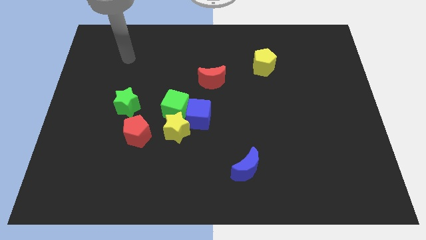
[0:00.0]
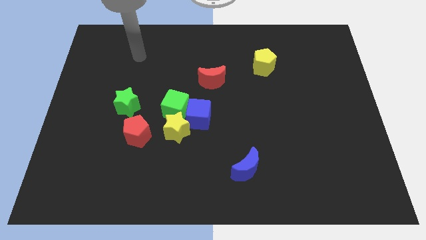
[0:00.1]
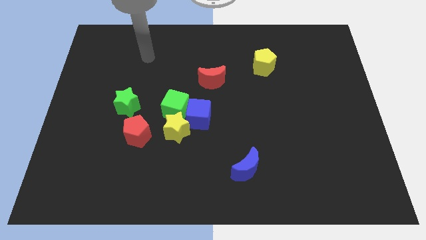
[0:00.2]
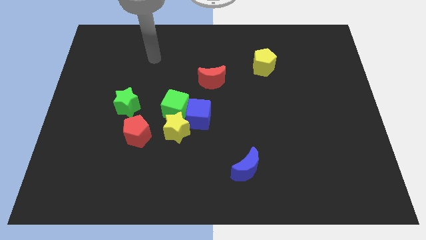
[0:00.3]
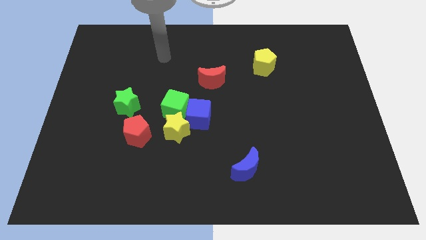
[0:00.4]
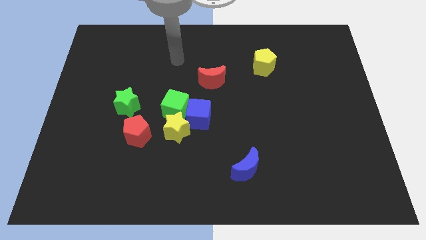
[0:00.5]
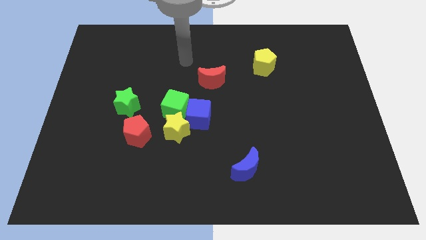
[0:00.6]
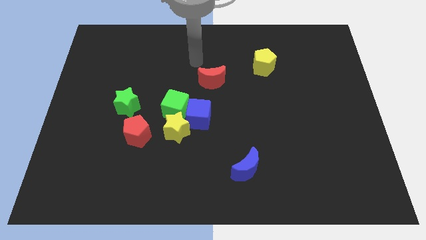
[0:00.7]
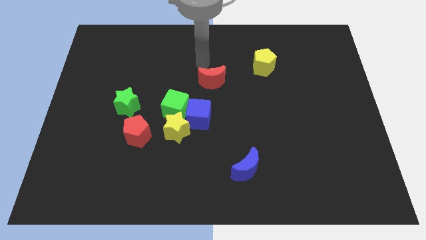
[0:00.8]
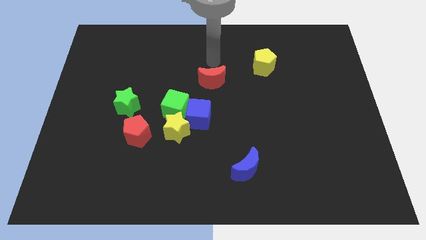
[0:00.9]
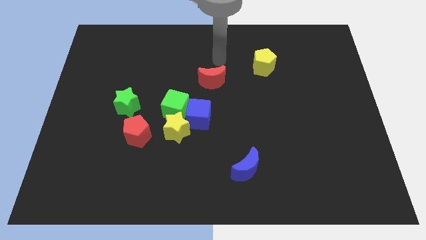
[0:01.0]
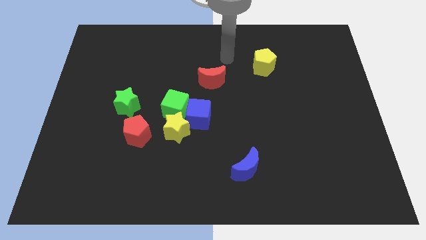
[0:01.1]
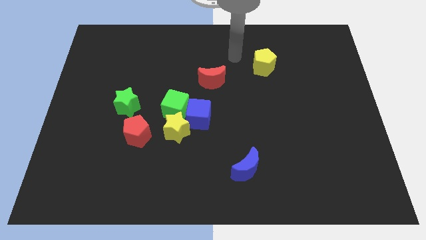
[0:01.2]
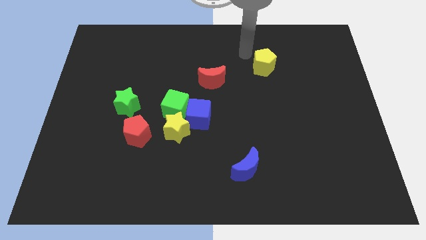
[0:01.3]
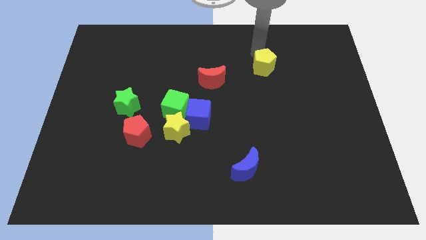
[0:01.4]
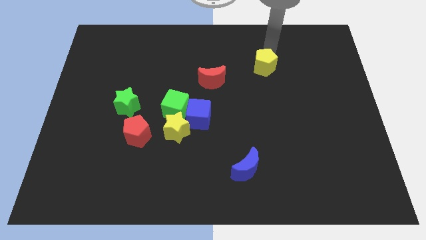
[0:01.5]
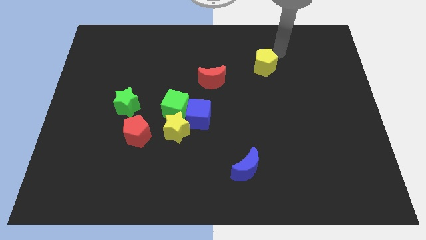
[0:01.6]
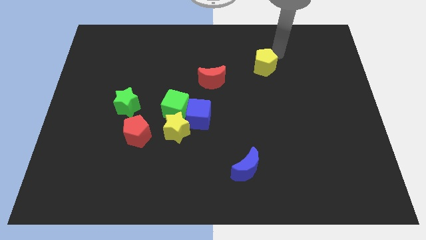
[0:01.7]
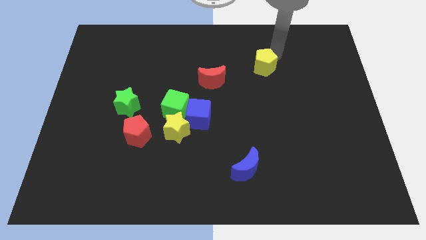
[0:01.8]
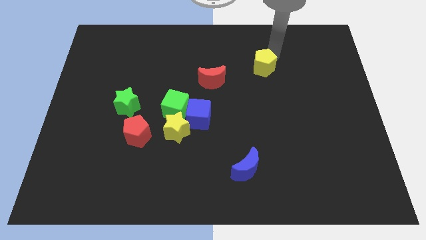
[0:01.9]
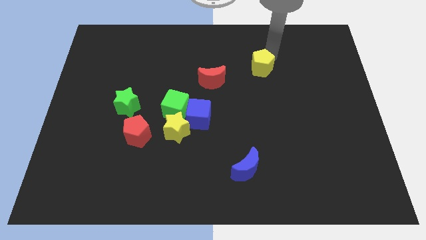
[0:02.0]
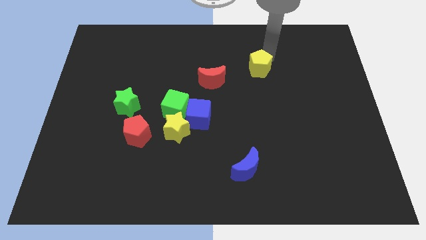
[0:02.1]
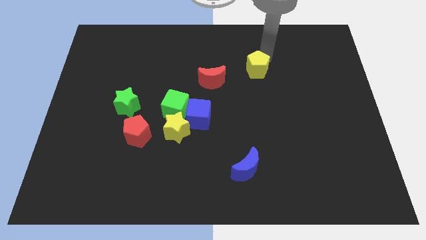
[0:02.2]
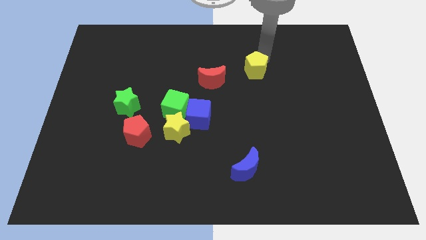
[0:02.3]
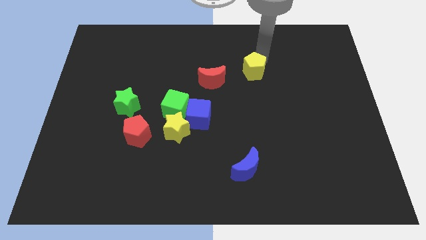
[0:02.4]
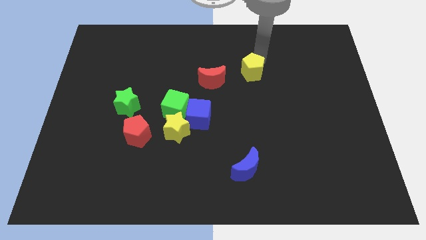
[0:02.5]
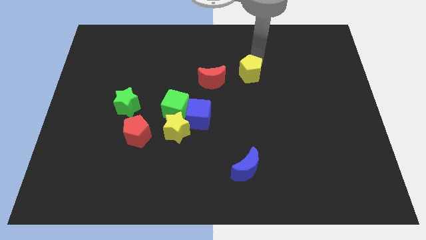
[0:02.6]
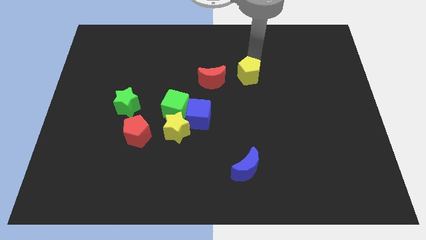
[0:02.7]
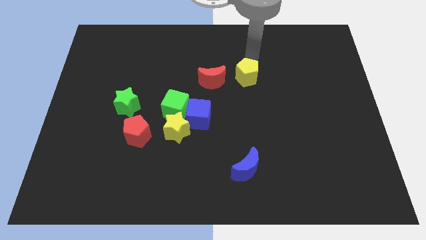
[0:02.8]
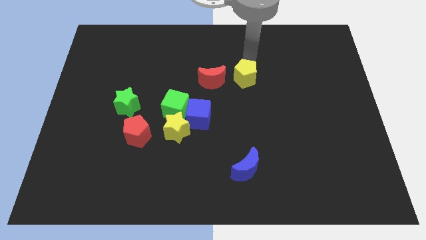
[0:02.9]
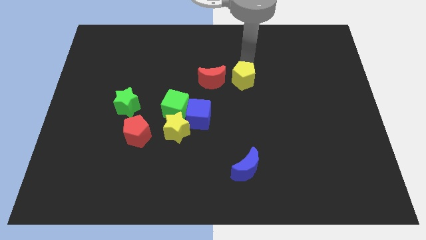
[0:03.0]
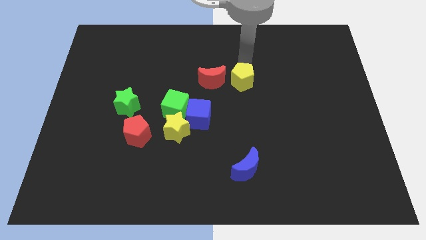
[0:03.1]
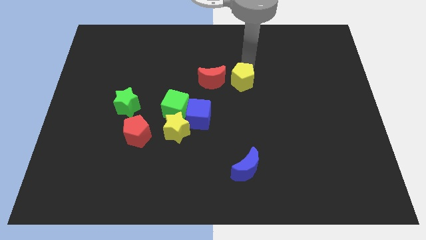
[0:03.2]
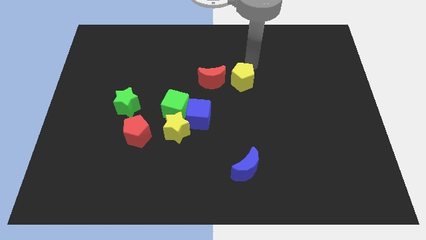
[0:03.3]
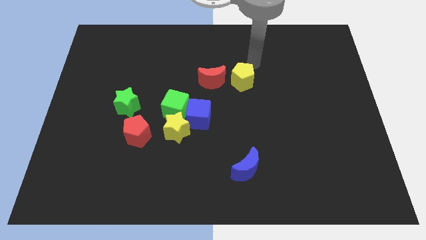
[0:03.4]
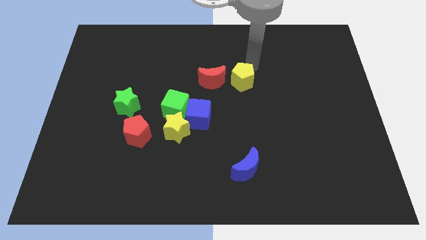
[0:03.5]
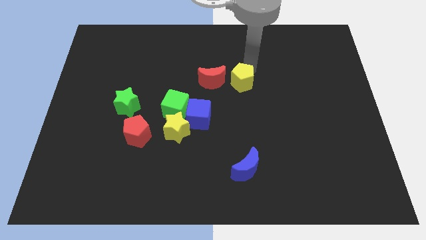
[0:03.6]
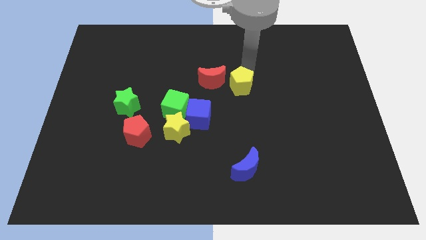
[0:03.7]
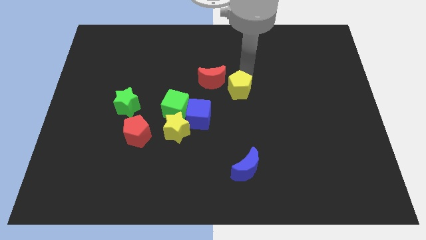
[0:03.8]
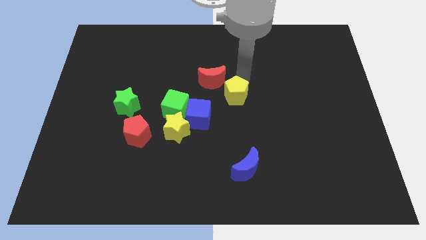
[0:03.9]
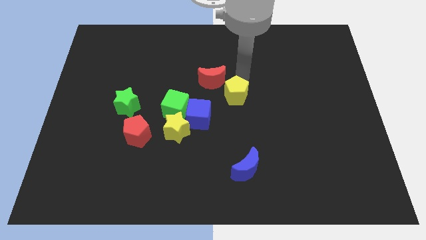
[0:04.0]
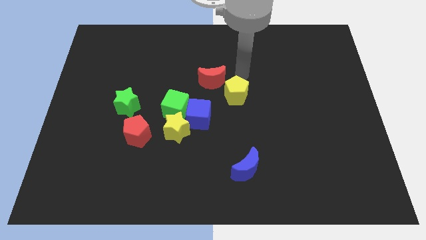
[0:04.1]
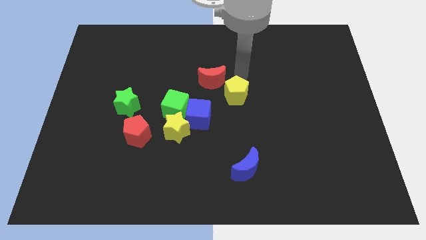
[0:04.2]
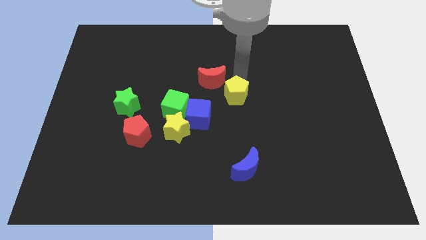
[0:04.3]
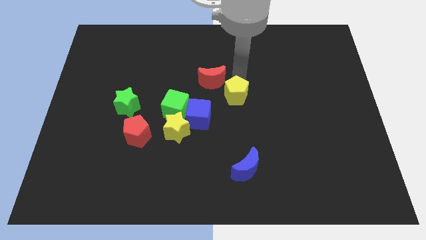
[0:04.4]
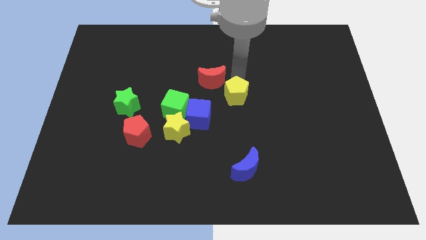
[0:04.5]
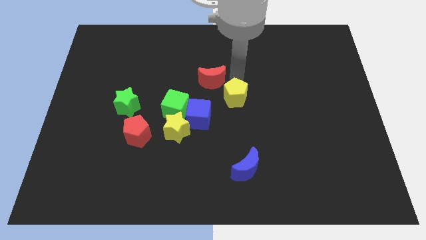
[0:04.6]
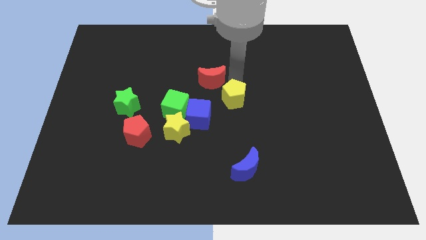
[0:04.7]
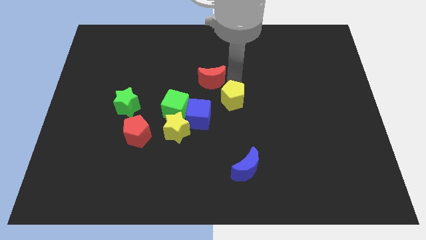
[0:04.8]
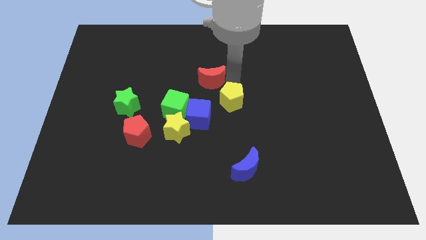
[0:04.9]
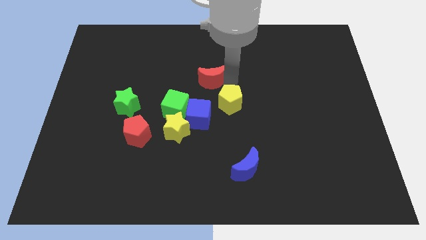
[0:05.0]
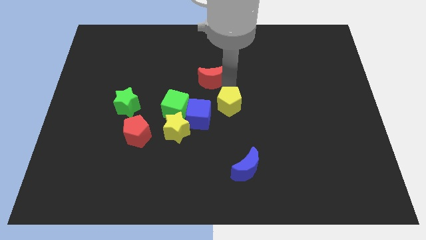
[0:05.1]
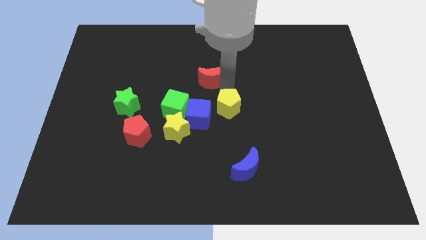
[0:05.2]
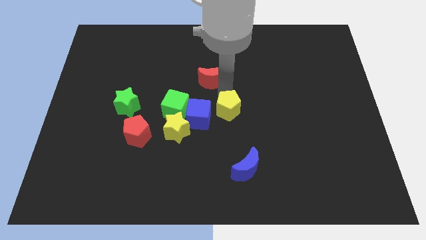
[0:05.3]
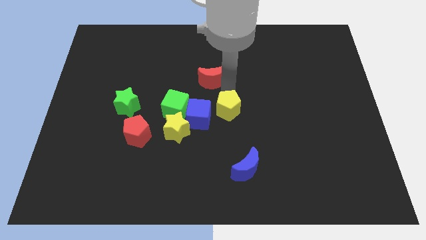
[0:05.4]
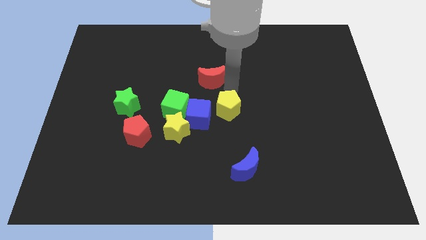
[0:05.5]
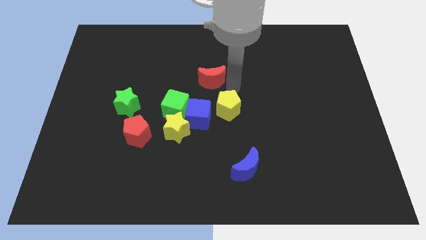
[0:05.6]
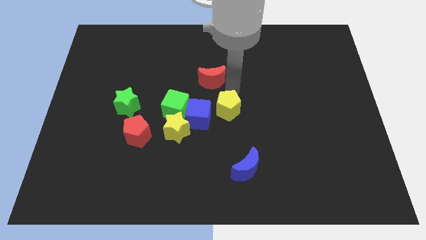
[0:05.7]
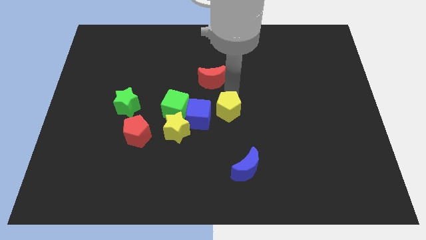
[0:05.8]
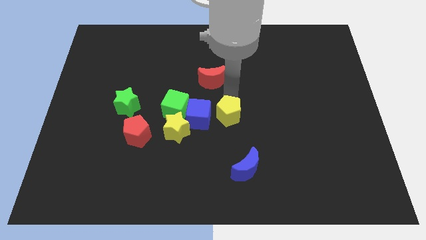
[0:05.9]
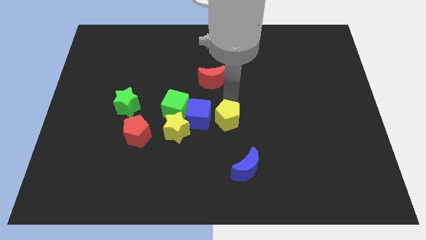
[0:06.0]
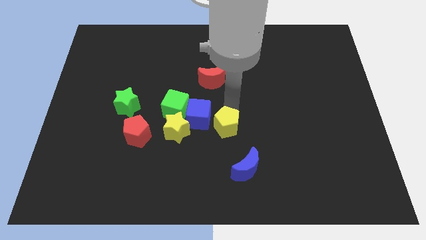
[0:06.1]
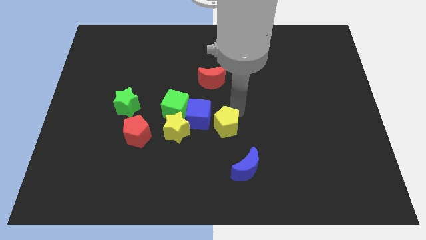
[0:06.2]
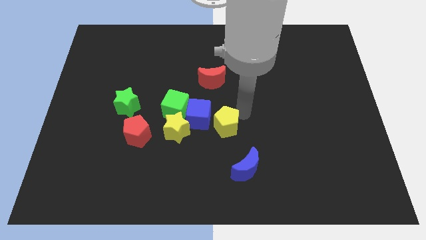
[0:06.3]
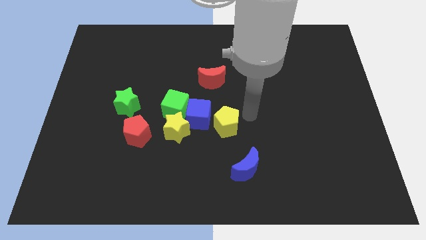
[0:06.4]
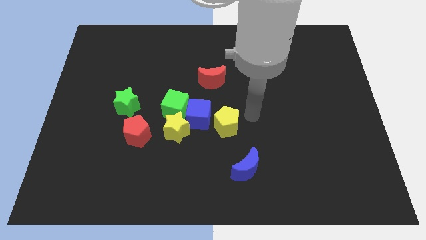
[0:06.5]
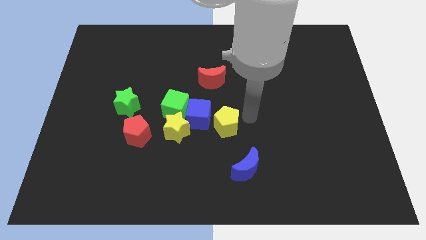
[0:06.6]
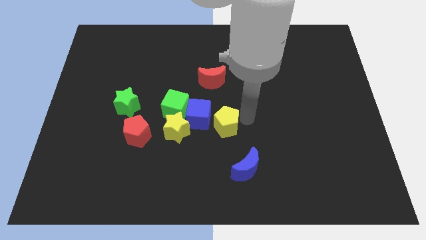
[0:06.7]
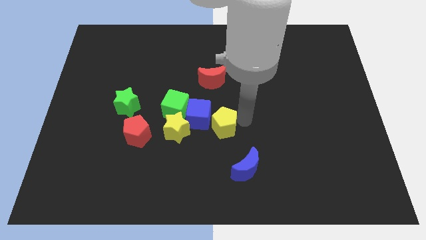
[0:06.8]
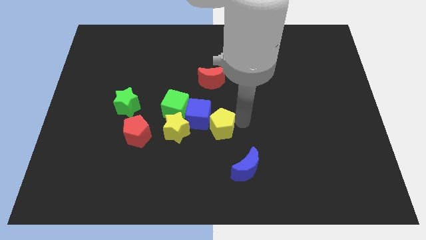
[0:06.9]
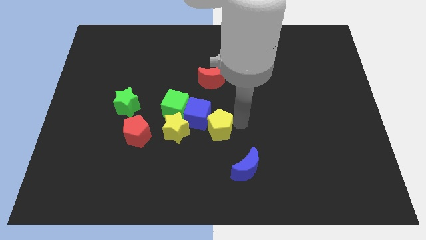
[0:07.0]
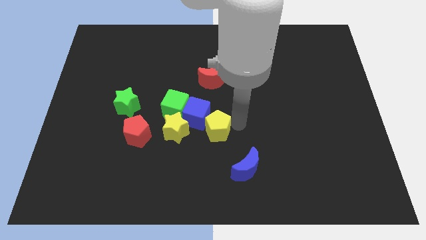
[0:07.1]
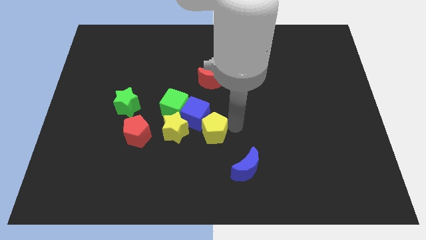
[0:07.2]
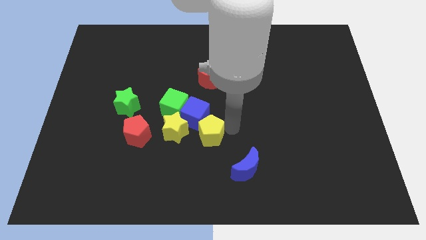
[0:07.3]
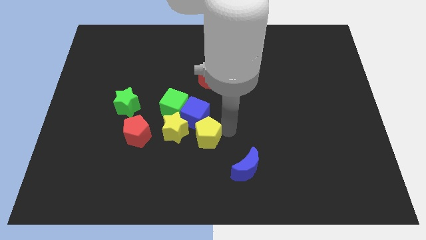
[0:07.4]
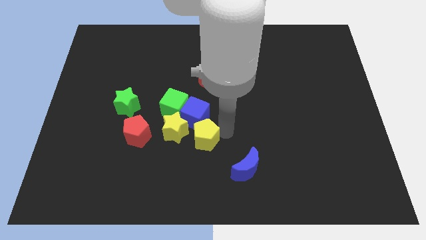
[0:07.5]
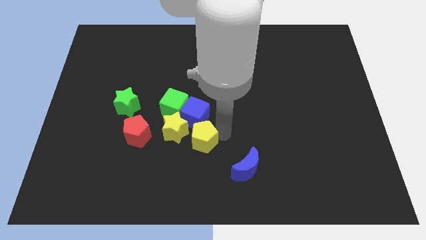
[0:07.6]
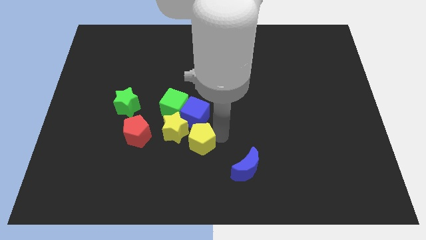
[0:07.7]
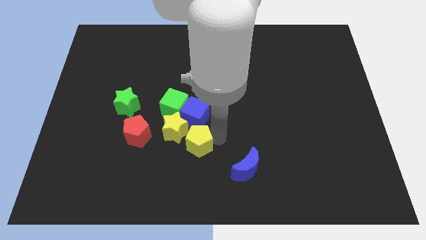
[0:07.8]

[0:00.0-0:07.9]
slide the yellow pentagon close to the yellow star

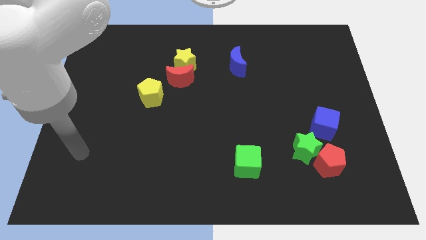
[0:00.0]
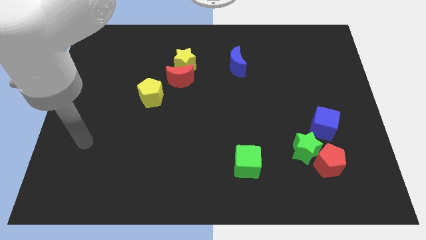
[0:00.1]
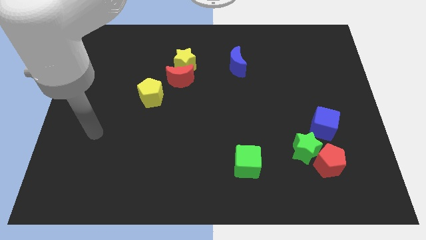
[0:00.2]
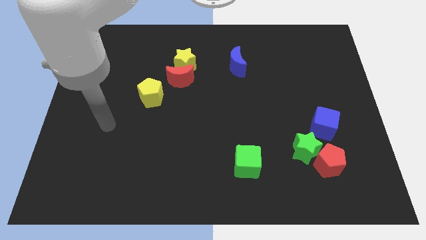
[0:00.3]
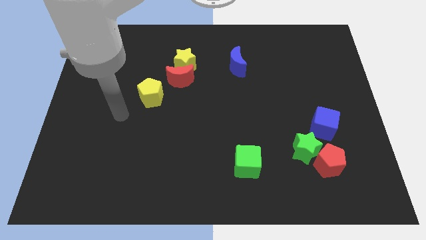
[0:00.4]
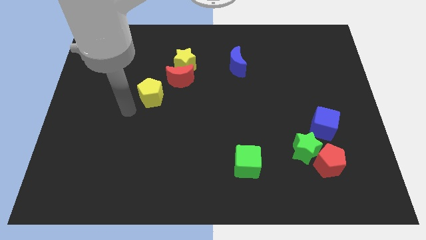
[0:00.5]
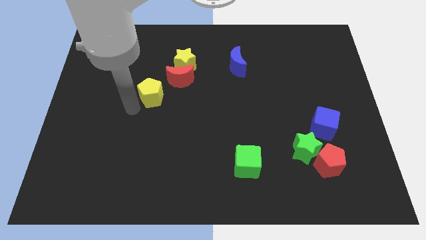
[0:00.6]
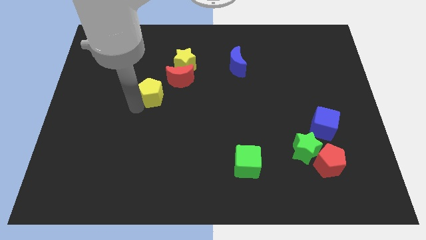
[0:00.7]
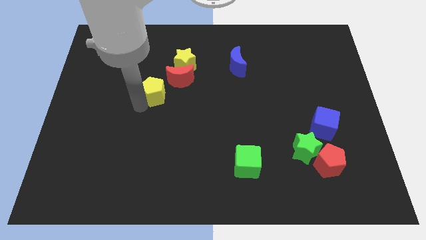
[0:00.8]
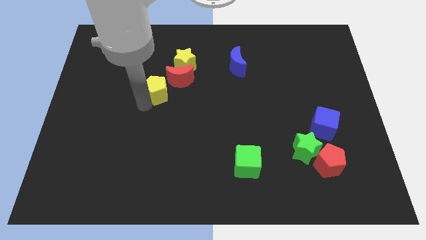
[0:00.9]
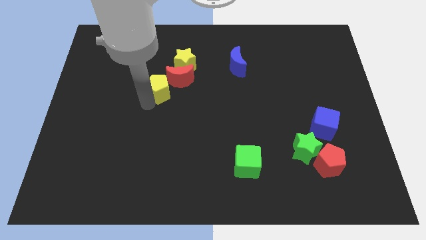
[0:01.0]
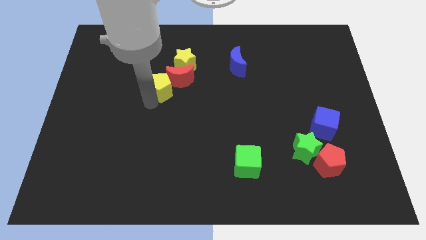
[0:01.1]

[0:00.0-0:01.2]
push the yellow pentagon close to the red moon
